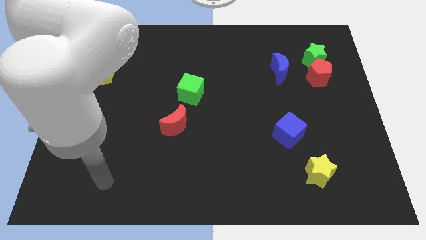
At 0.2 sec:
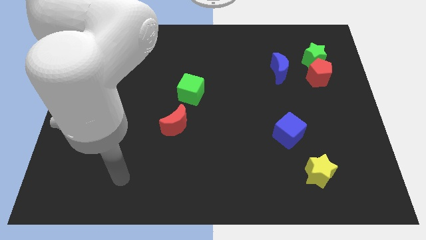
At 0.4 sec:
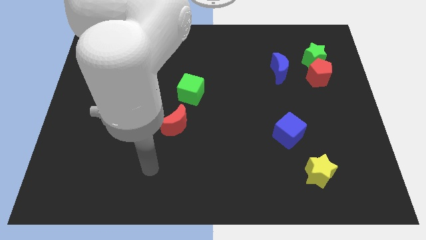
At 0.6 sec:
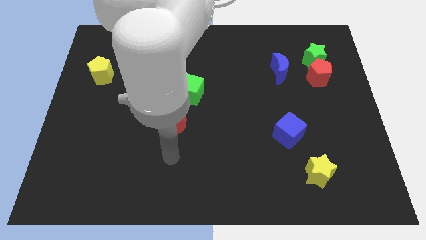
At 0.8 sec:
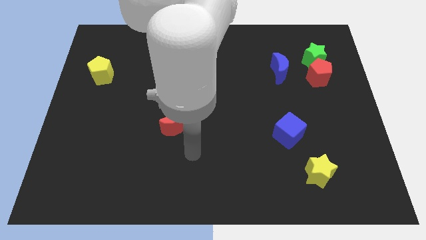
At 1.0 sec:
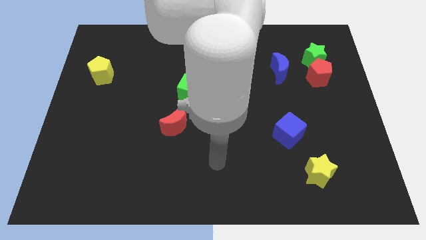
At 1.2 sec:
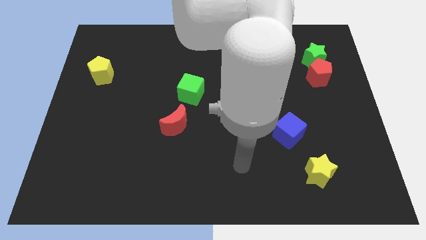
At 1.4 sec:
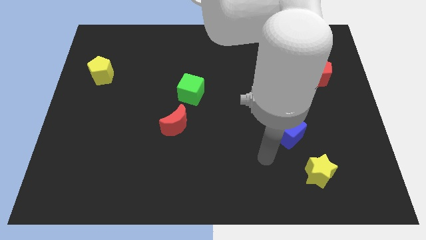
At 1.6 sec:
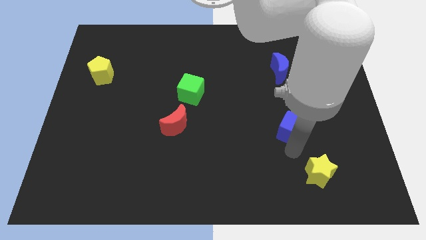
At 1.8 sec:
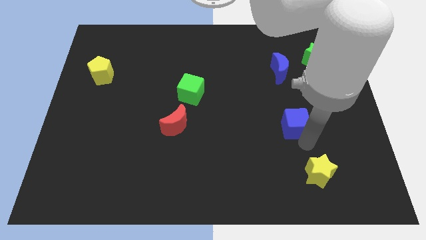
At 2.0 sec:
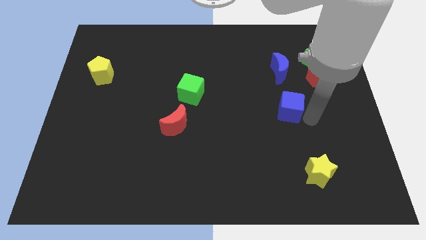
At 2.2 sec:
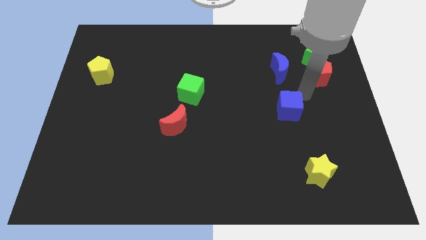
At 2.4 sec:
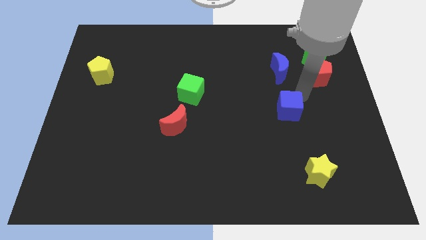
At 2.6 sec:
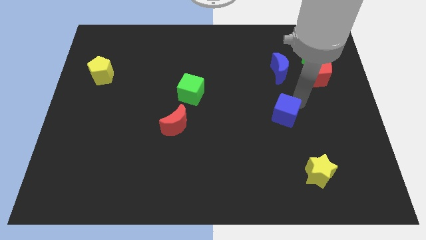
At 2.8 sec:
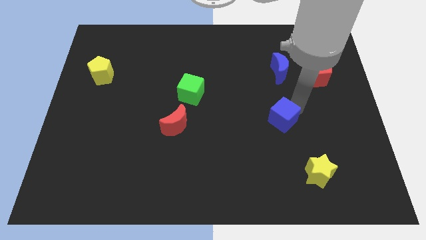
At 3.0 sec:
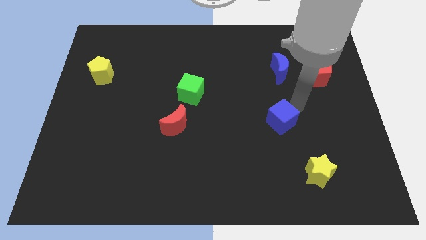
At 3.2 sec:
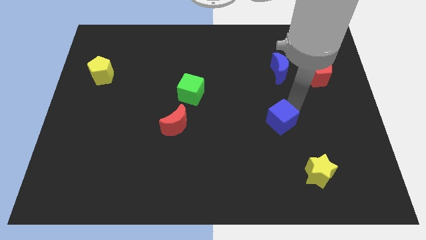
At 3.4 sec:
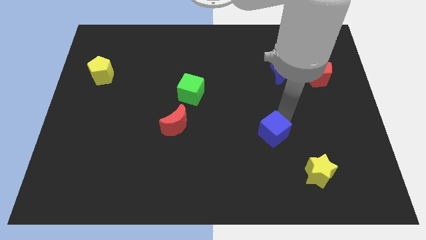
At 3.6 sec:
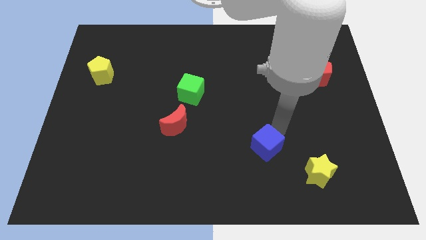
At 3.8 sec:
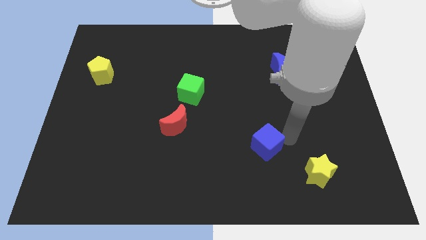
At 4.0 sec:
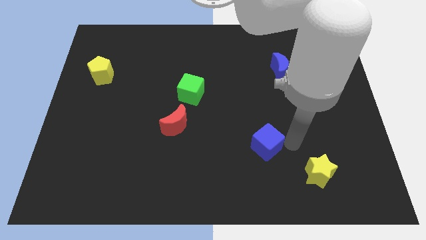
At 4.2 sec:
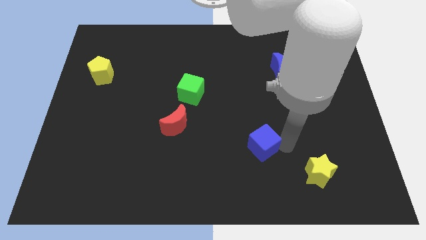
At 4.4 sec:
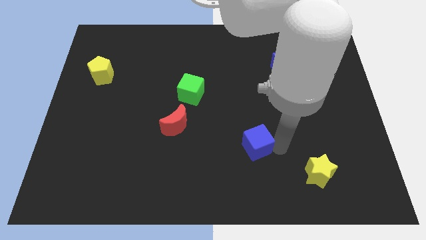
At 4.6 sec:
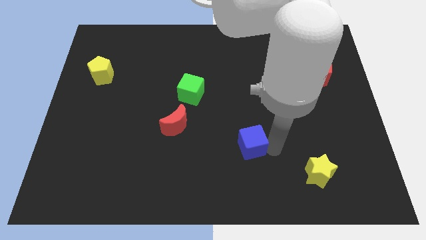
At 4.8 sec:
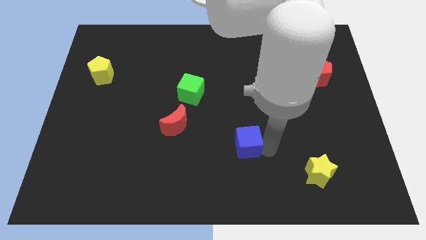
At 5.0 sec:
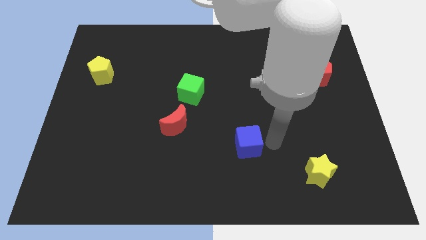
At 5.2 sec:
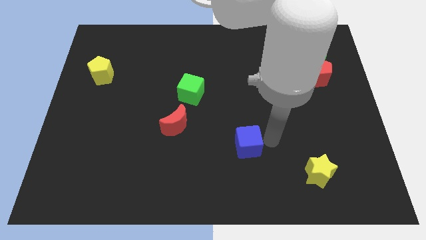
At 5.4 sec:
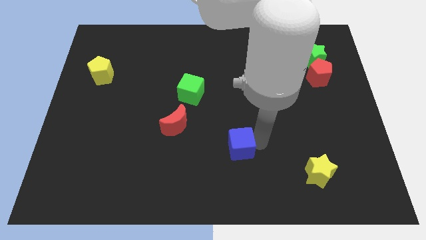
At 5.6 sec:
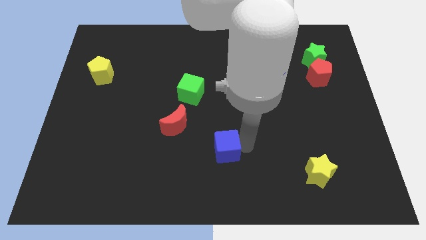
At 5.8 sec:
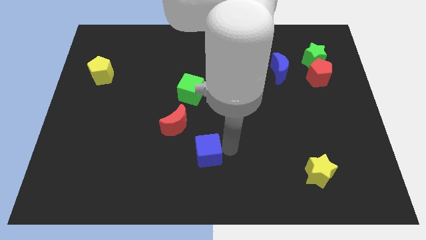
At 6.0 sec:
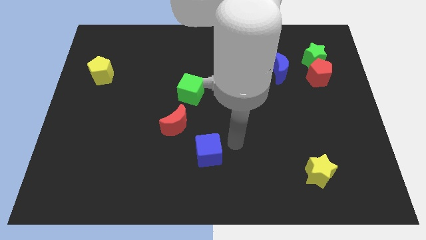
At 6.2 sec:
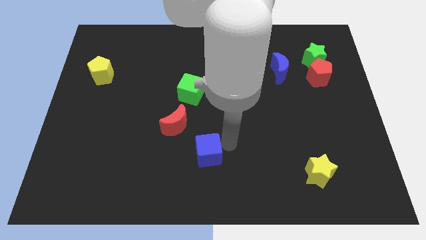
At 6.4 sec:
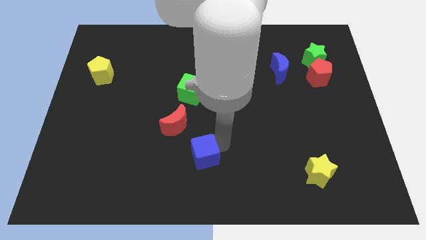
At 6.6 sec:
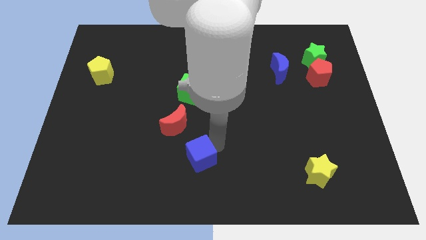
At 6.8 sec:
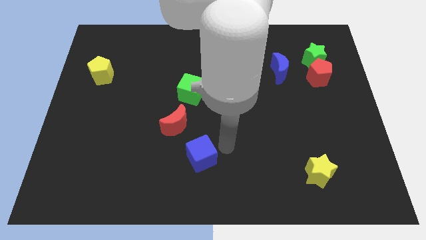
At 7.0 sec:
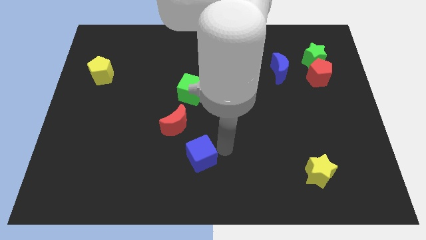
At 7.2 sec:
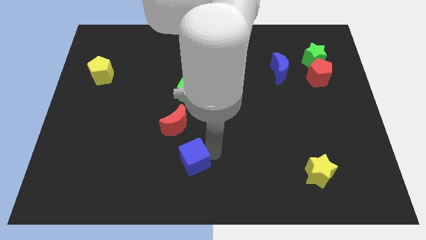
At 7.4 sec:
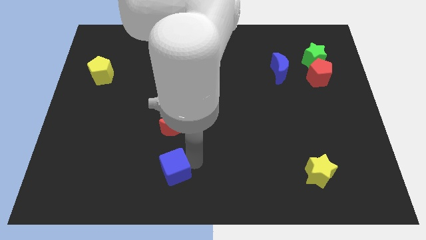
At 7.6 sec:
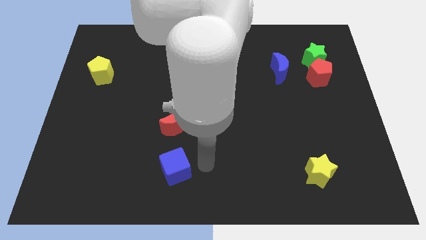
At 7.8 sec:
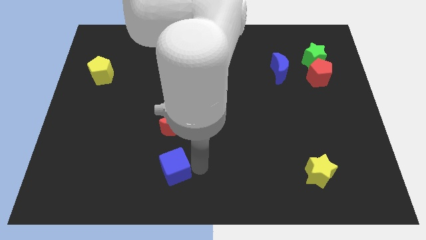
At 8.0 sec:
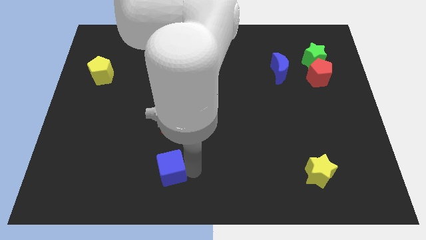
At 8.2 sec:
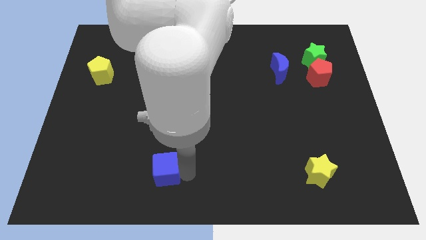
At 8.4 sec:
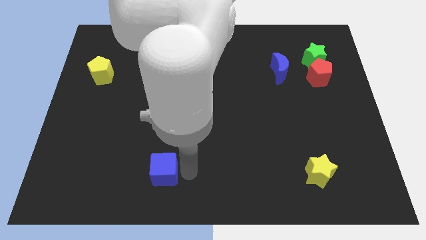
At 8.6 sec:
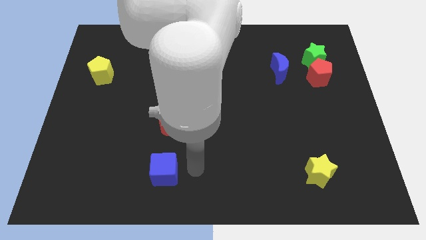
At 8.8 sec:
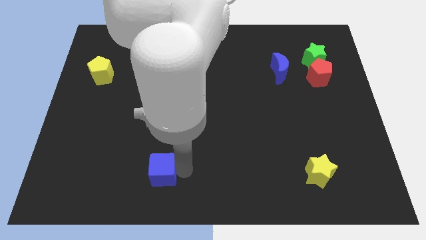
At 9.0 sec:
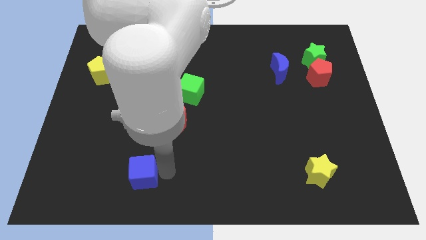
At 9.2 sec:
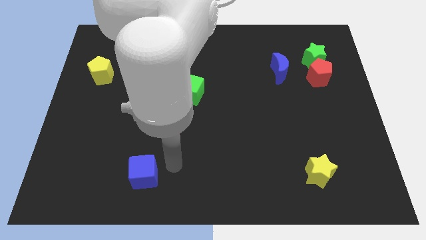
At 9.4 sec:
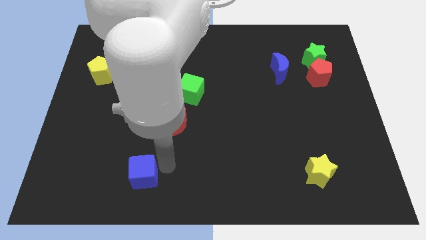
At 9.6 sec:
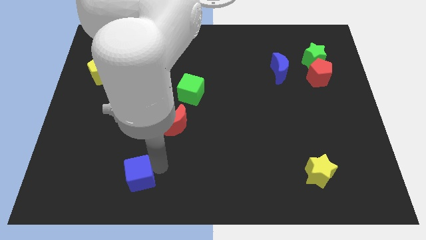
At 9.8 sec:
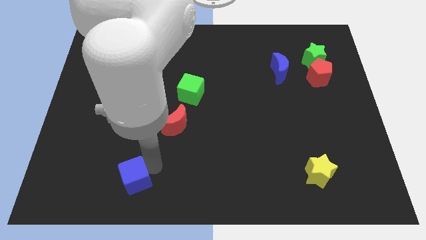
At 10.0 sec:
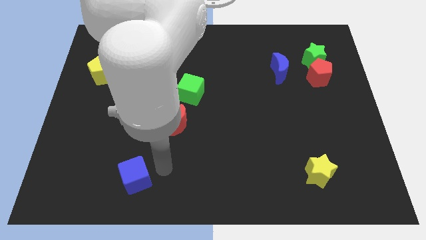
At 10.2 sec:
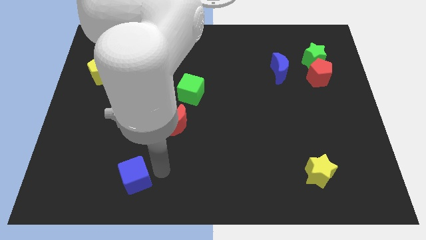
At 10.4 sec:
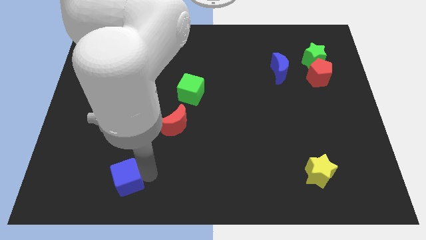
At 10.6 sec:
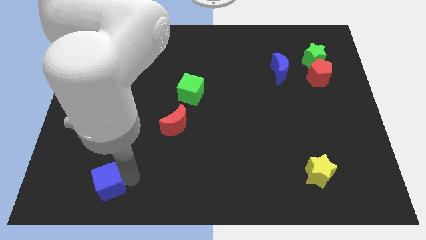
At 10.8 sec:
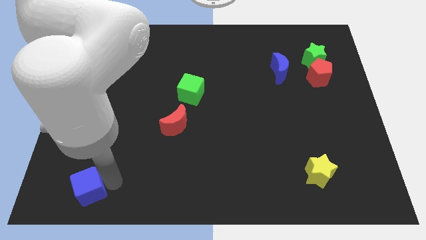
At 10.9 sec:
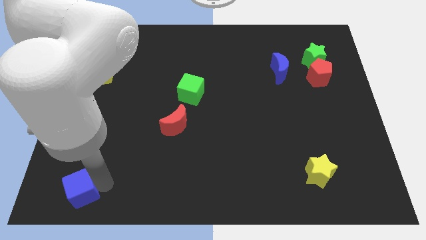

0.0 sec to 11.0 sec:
put the blue cube to the bottom left of the board
